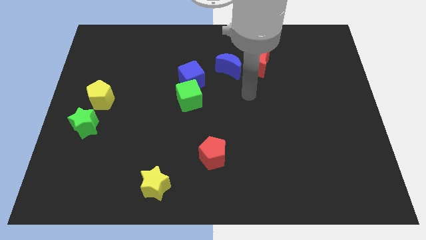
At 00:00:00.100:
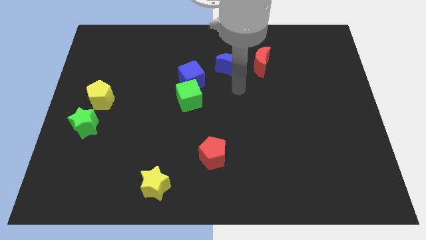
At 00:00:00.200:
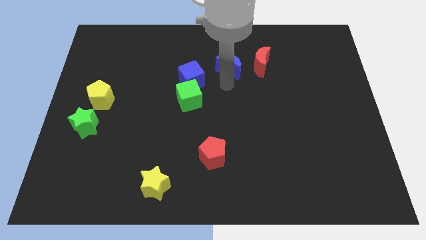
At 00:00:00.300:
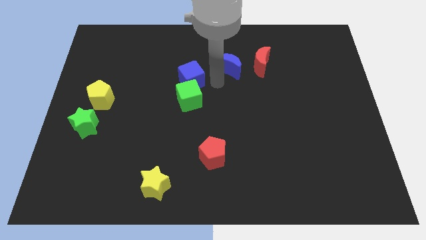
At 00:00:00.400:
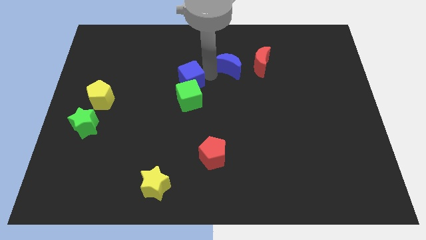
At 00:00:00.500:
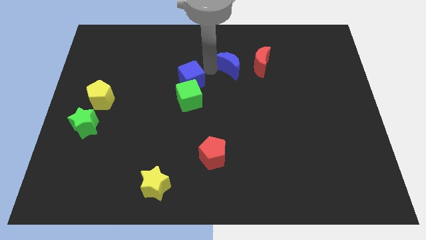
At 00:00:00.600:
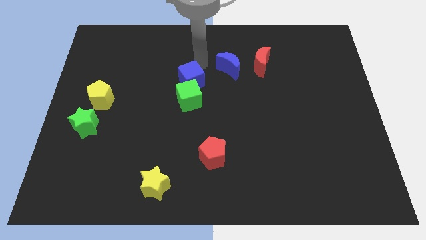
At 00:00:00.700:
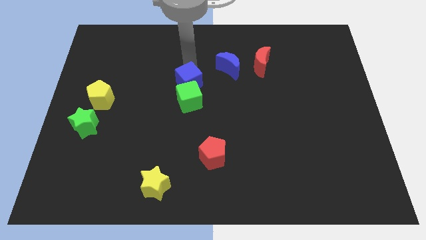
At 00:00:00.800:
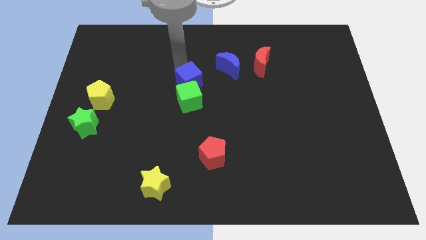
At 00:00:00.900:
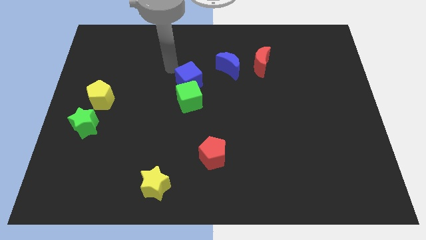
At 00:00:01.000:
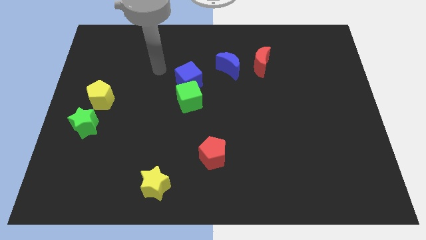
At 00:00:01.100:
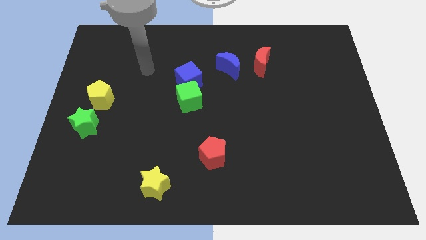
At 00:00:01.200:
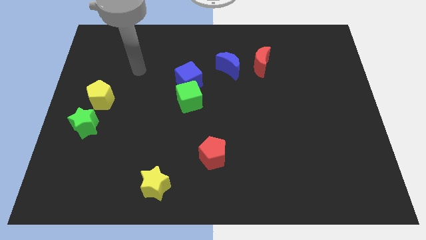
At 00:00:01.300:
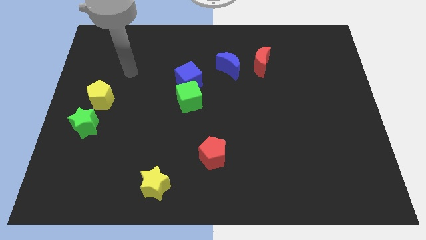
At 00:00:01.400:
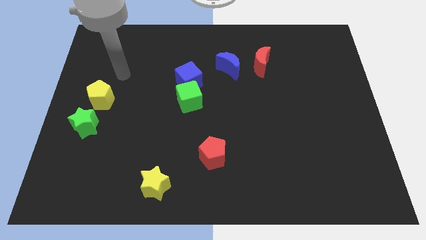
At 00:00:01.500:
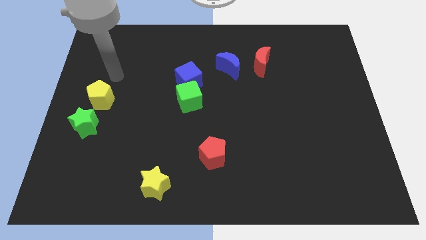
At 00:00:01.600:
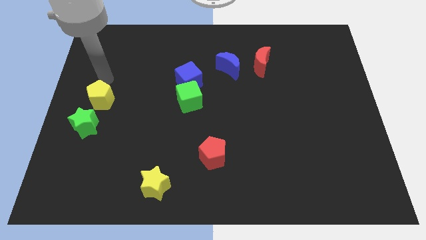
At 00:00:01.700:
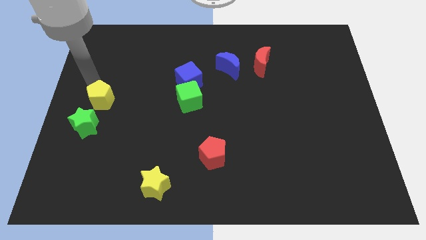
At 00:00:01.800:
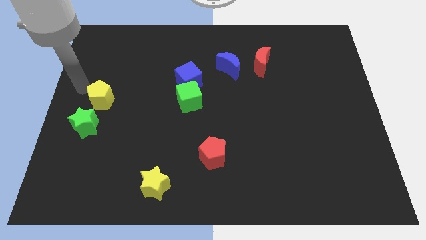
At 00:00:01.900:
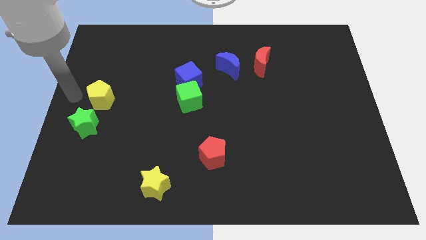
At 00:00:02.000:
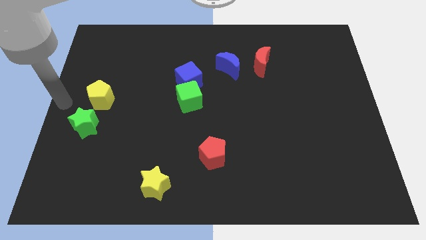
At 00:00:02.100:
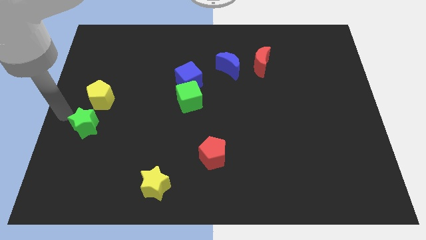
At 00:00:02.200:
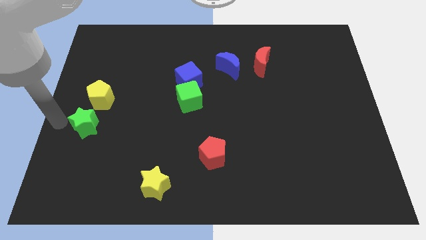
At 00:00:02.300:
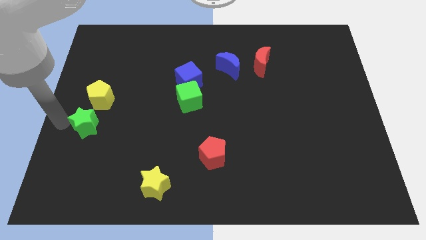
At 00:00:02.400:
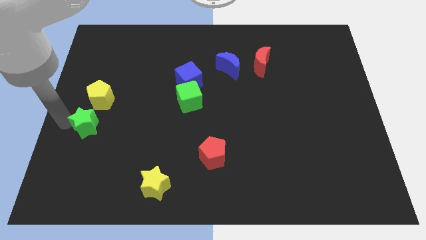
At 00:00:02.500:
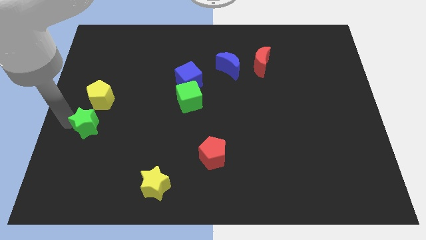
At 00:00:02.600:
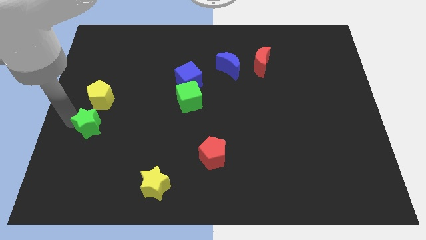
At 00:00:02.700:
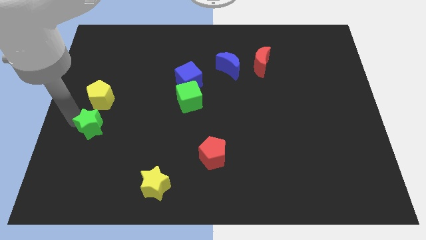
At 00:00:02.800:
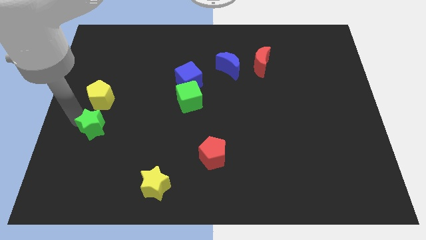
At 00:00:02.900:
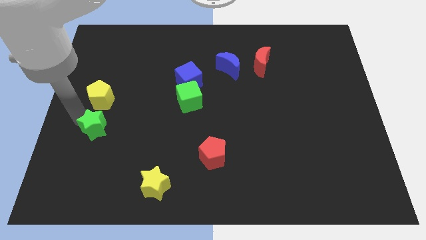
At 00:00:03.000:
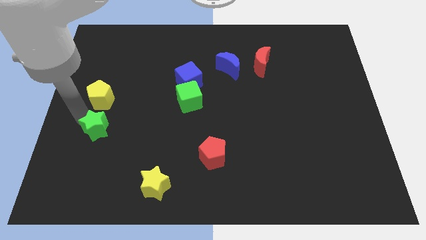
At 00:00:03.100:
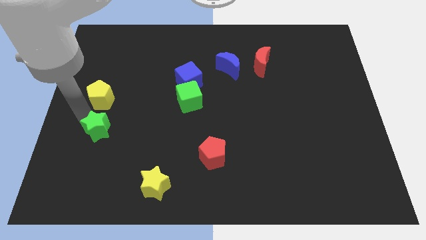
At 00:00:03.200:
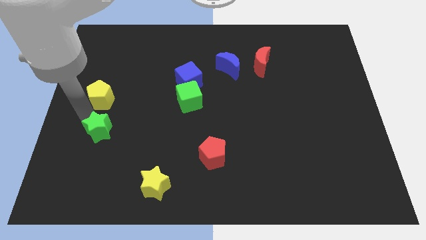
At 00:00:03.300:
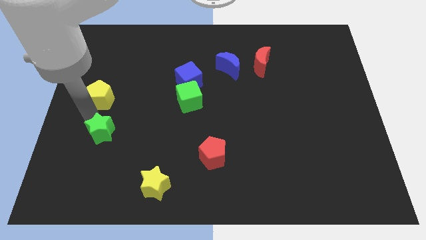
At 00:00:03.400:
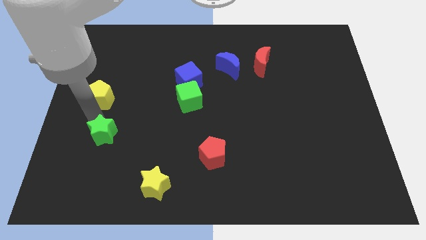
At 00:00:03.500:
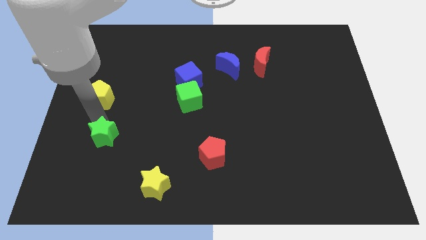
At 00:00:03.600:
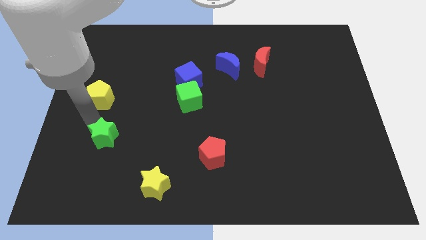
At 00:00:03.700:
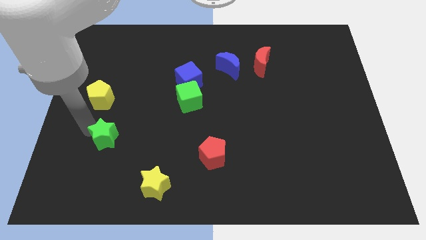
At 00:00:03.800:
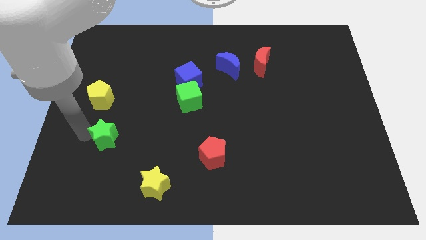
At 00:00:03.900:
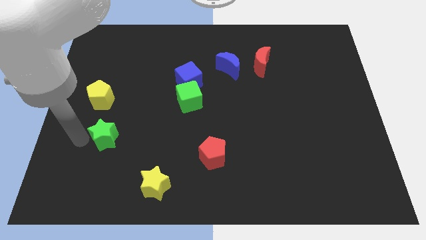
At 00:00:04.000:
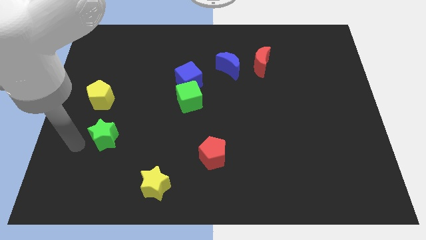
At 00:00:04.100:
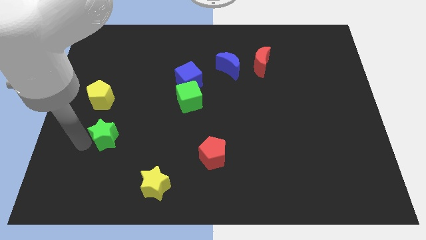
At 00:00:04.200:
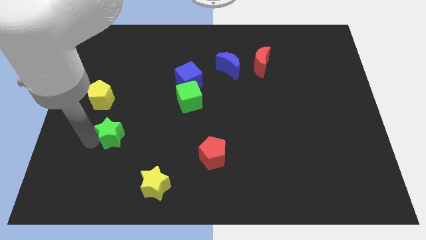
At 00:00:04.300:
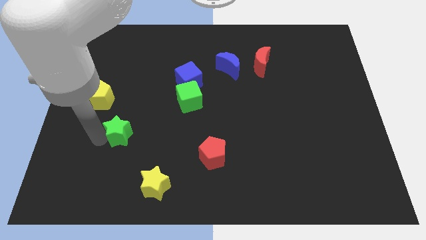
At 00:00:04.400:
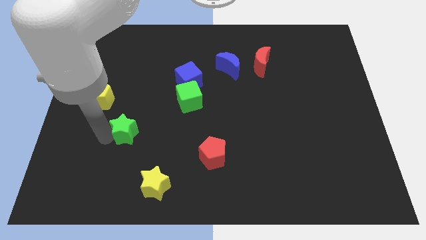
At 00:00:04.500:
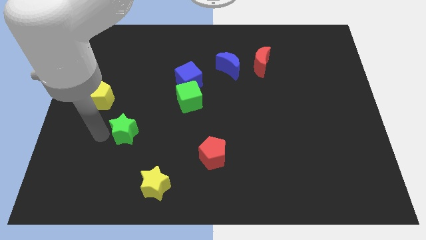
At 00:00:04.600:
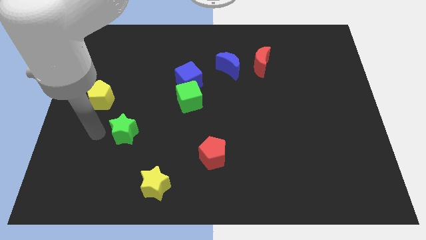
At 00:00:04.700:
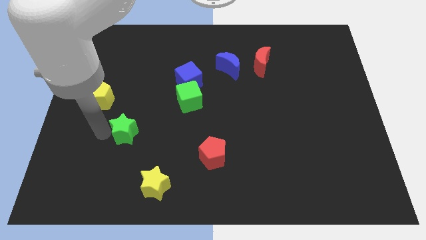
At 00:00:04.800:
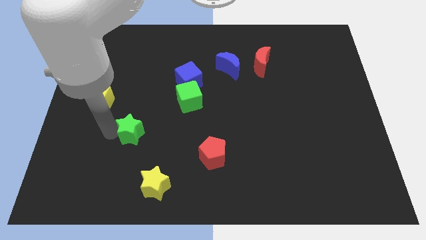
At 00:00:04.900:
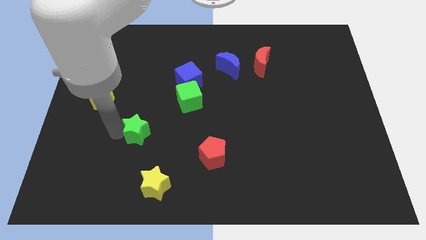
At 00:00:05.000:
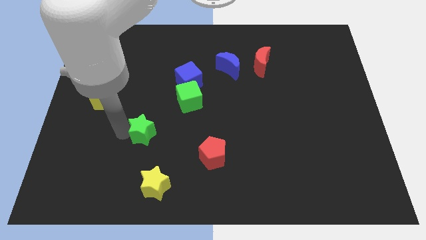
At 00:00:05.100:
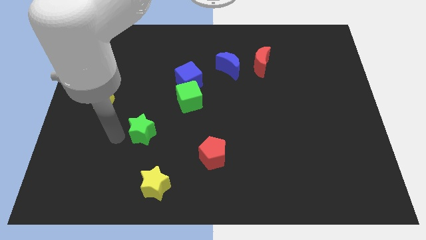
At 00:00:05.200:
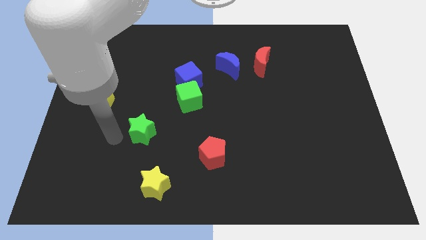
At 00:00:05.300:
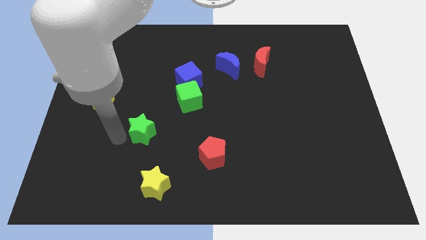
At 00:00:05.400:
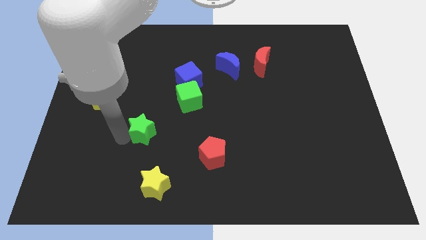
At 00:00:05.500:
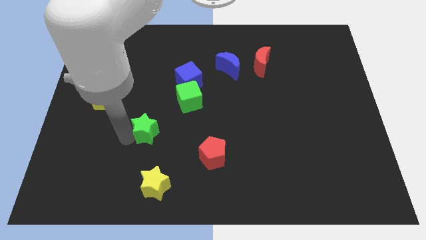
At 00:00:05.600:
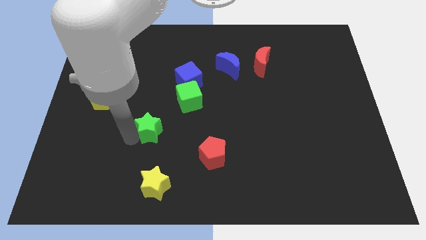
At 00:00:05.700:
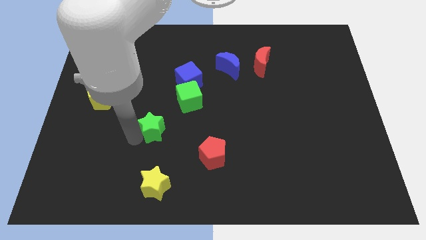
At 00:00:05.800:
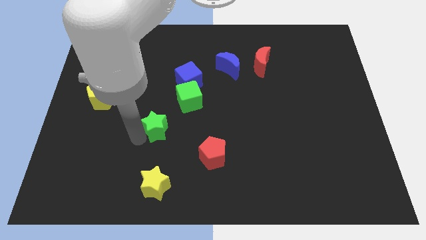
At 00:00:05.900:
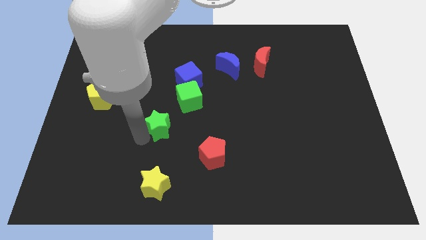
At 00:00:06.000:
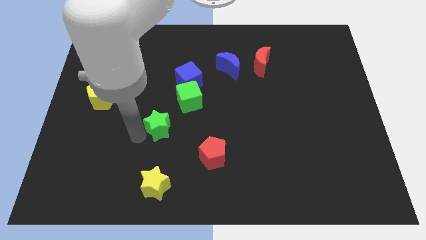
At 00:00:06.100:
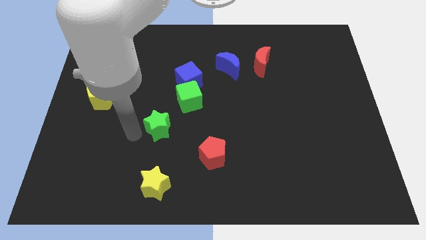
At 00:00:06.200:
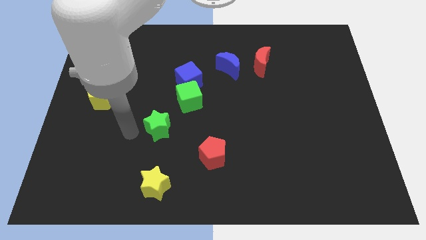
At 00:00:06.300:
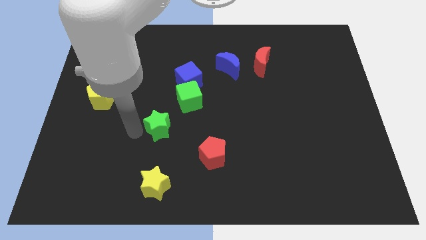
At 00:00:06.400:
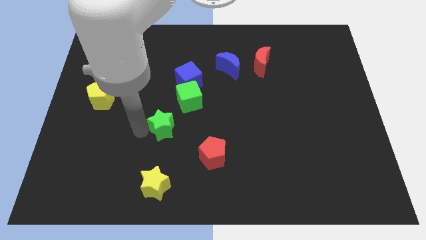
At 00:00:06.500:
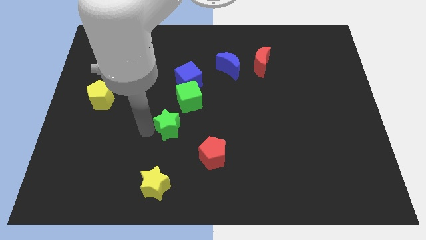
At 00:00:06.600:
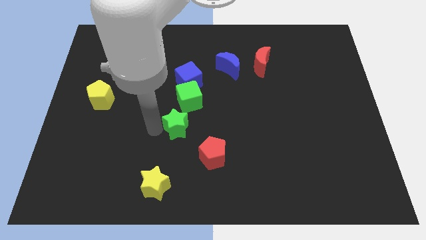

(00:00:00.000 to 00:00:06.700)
move the green star to the right

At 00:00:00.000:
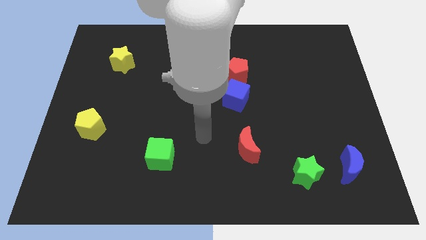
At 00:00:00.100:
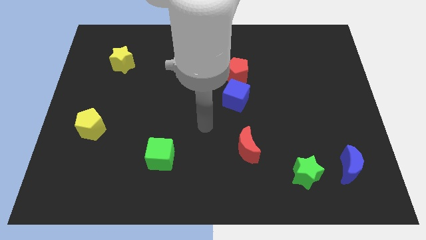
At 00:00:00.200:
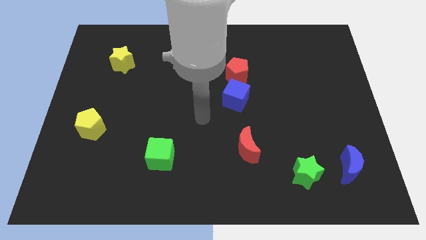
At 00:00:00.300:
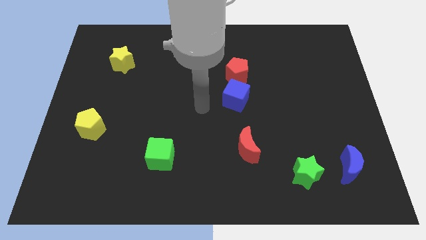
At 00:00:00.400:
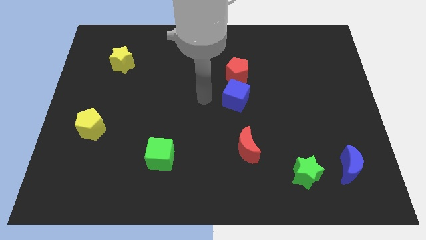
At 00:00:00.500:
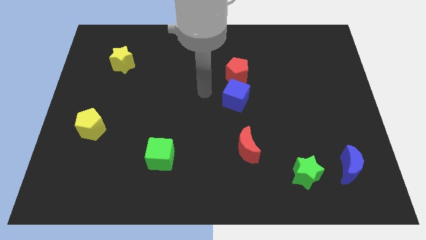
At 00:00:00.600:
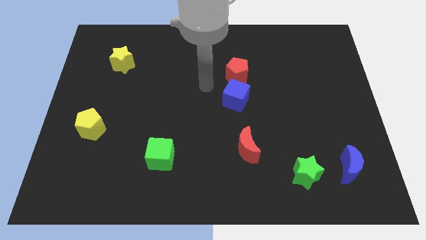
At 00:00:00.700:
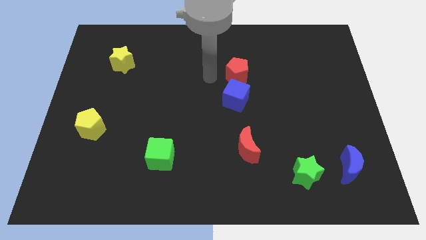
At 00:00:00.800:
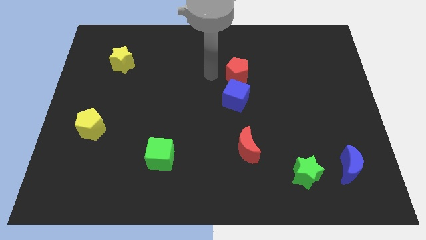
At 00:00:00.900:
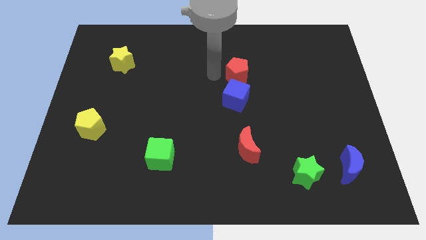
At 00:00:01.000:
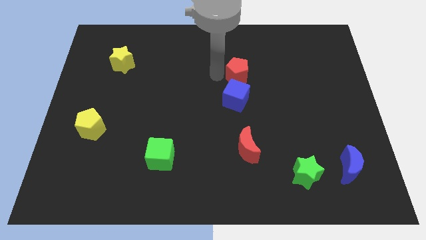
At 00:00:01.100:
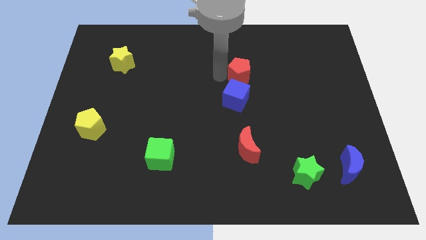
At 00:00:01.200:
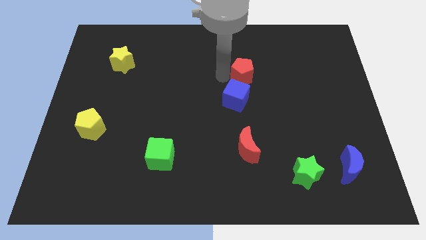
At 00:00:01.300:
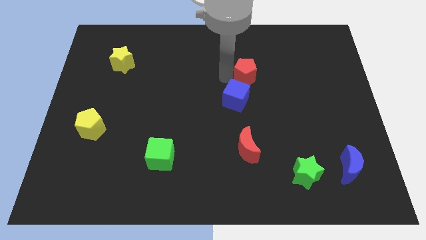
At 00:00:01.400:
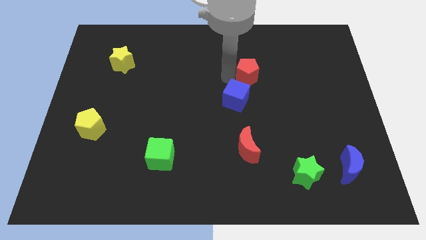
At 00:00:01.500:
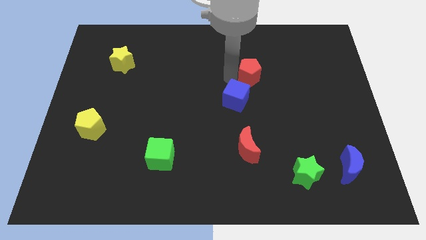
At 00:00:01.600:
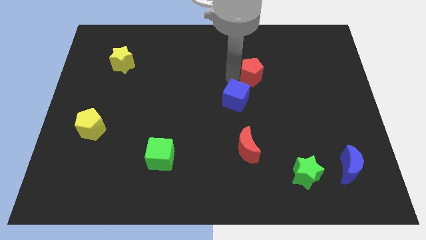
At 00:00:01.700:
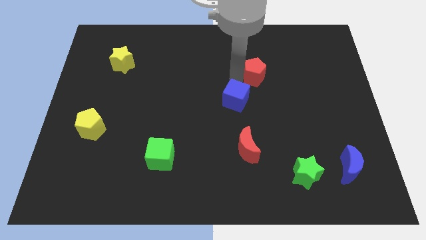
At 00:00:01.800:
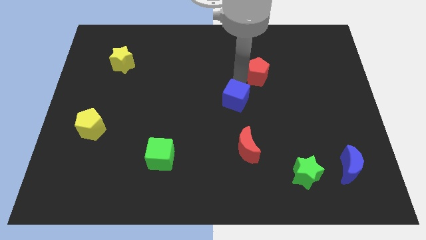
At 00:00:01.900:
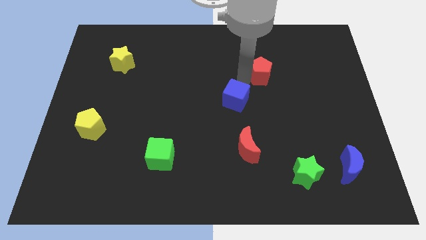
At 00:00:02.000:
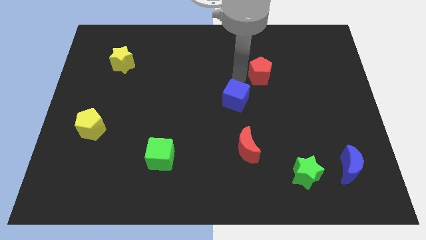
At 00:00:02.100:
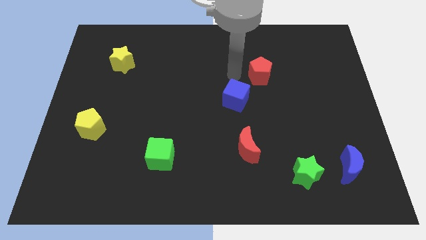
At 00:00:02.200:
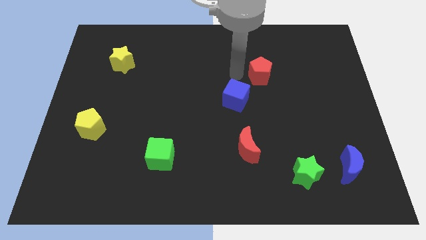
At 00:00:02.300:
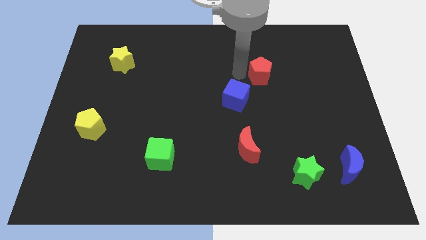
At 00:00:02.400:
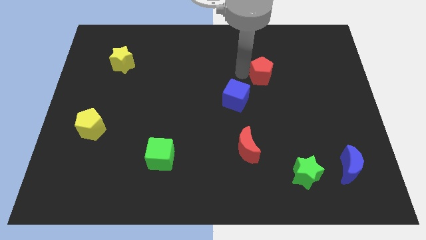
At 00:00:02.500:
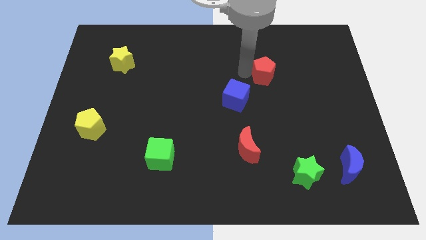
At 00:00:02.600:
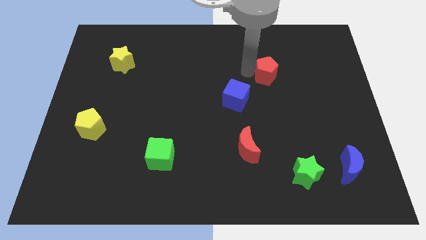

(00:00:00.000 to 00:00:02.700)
slide the red pentagon right a bit
